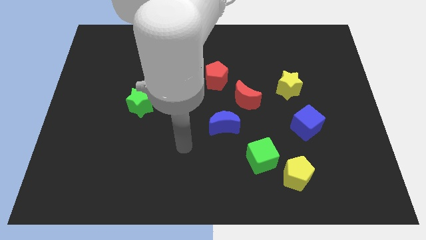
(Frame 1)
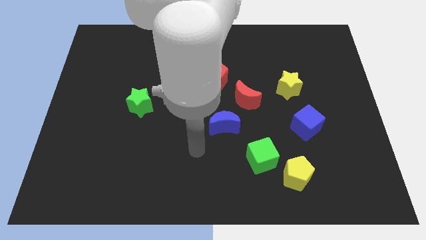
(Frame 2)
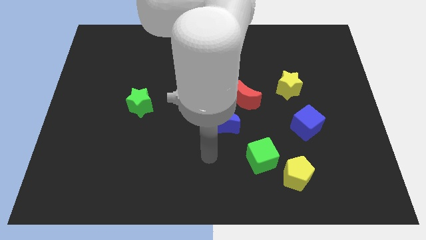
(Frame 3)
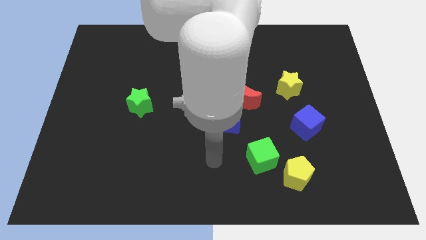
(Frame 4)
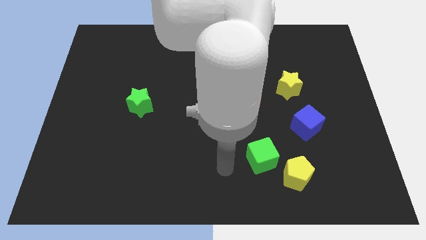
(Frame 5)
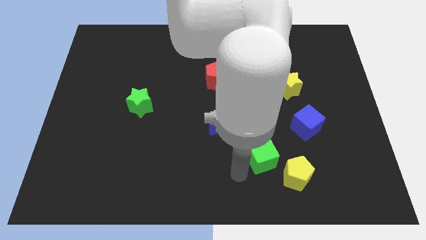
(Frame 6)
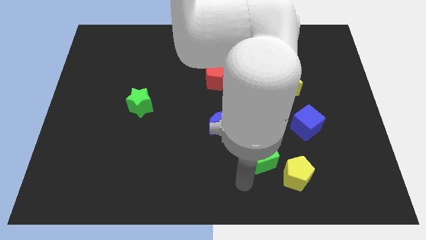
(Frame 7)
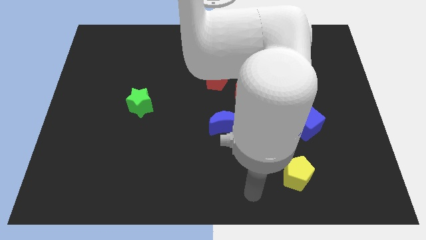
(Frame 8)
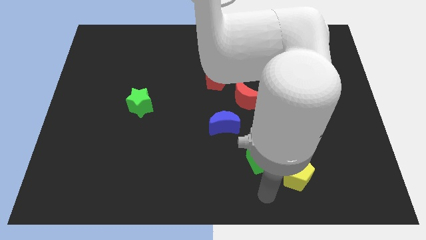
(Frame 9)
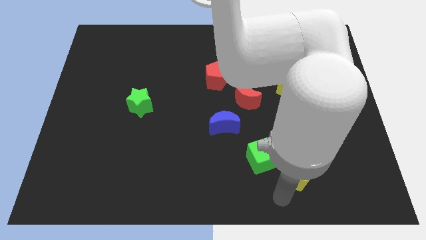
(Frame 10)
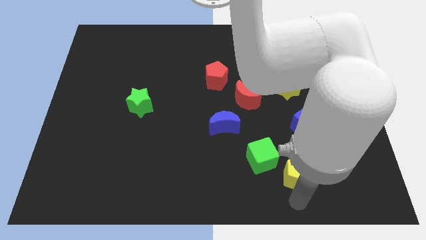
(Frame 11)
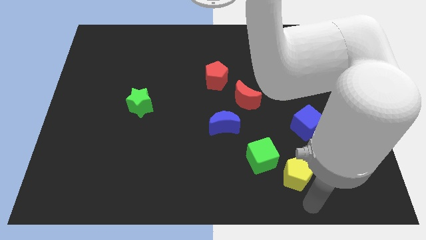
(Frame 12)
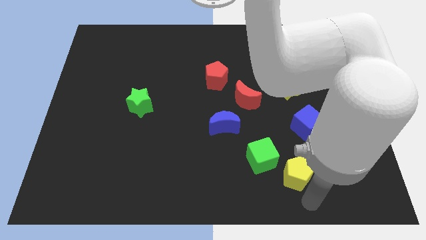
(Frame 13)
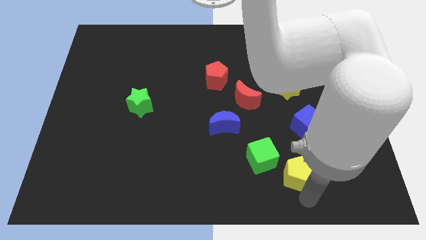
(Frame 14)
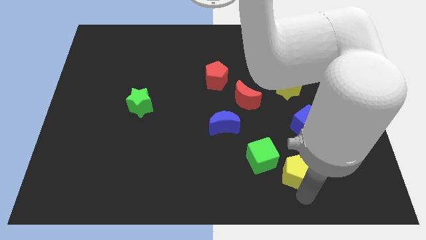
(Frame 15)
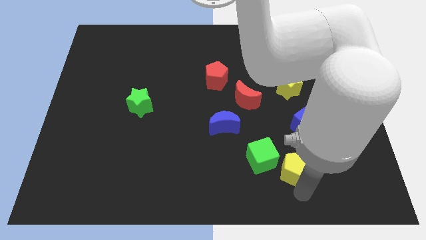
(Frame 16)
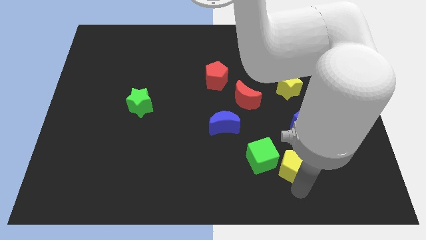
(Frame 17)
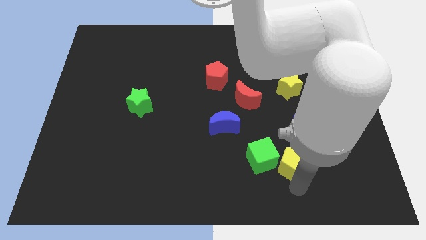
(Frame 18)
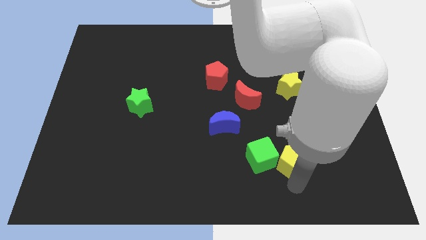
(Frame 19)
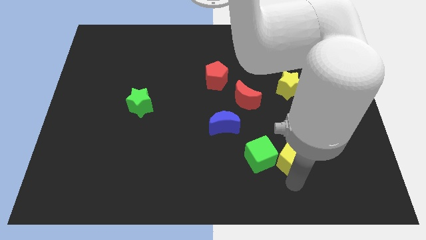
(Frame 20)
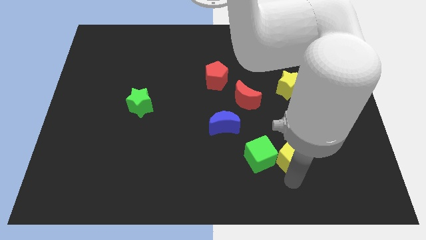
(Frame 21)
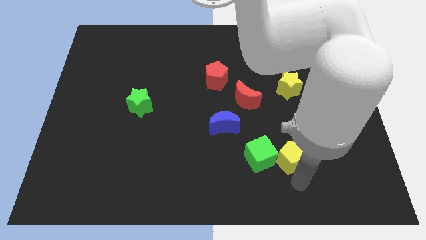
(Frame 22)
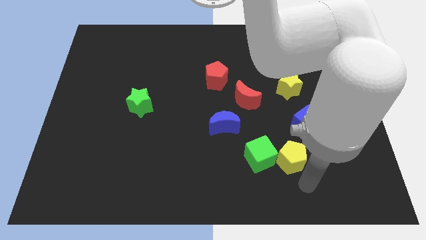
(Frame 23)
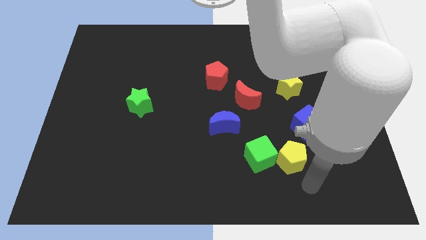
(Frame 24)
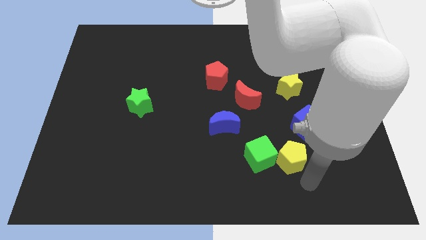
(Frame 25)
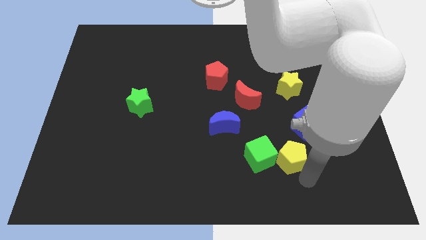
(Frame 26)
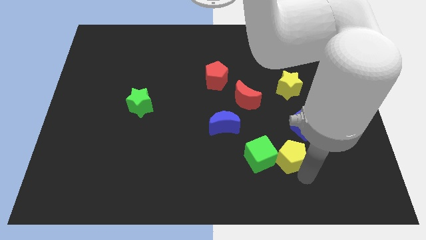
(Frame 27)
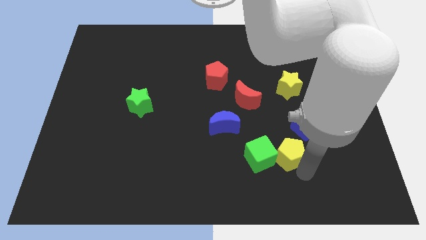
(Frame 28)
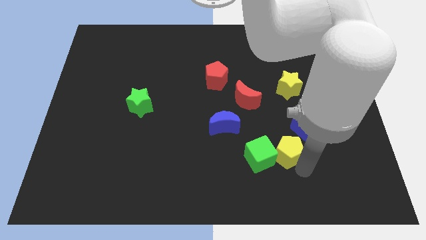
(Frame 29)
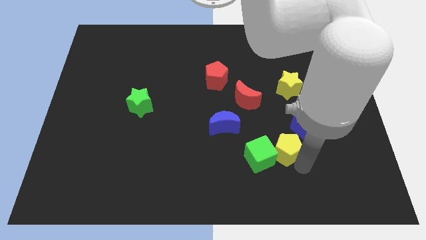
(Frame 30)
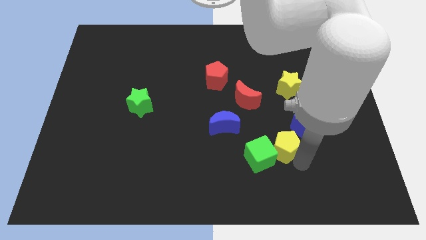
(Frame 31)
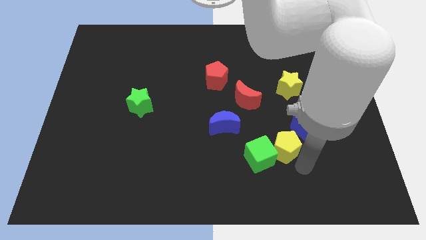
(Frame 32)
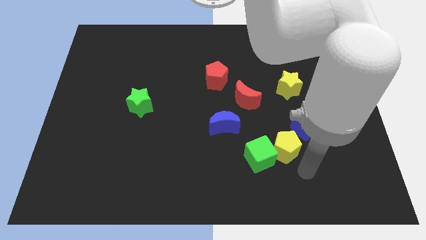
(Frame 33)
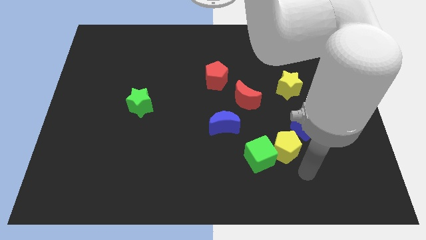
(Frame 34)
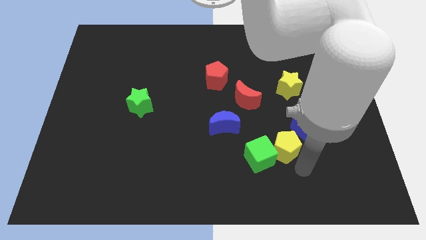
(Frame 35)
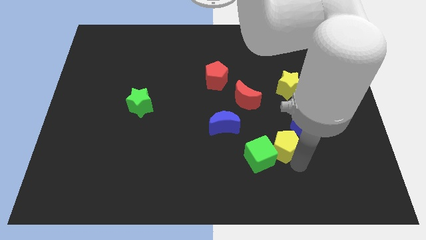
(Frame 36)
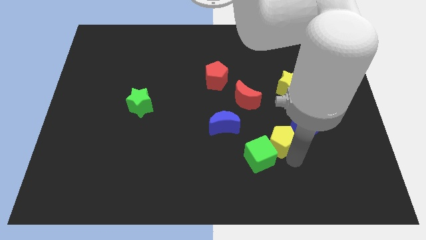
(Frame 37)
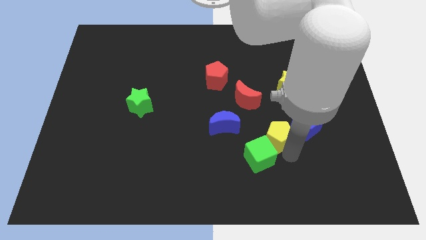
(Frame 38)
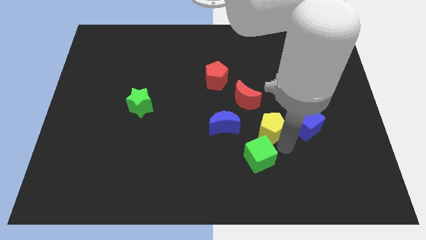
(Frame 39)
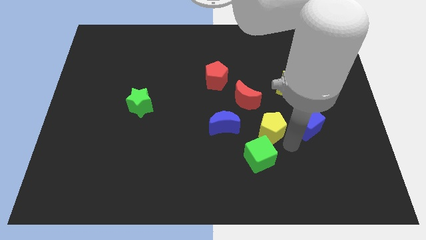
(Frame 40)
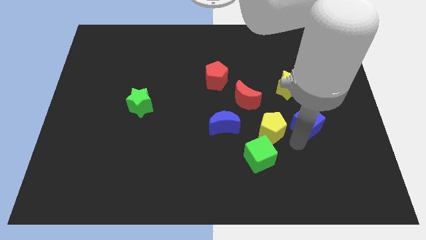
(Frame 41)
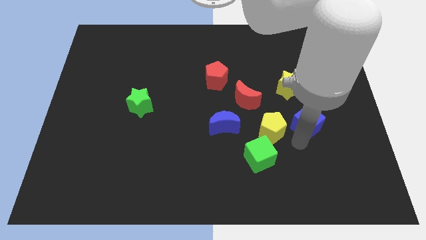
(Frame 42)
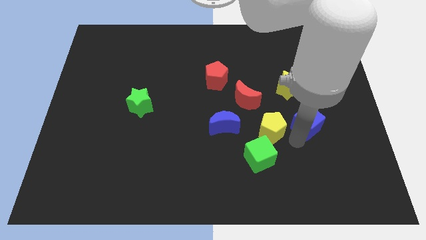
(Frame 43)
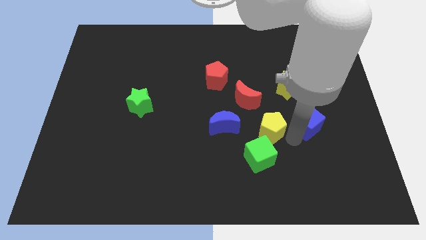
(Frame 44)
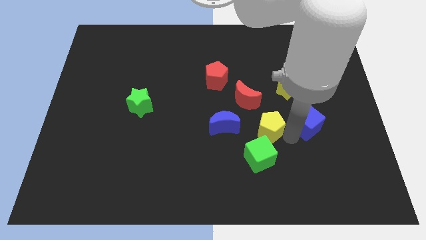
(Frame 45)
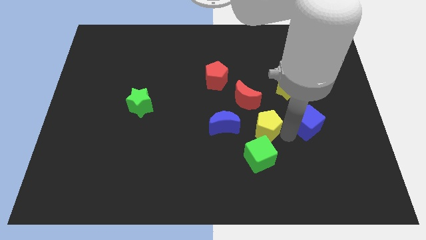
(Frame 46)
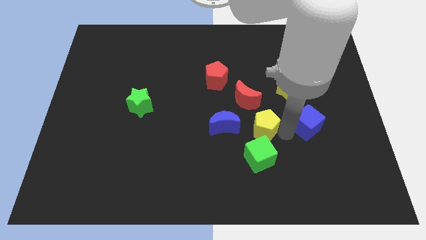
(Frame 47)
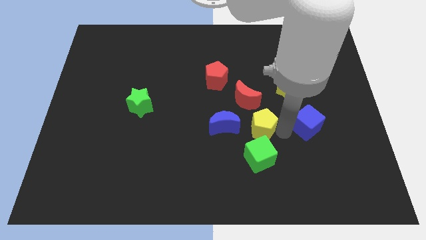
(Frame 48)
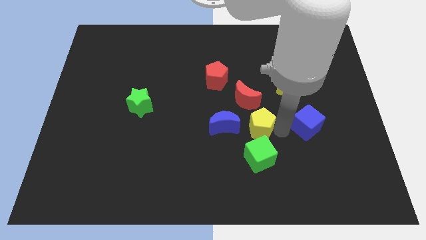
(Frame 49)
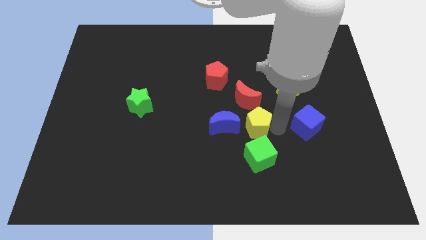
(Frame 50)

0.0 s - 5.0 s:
put the yellow pentagon to the center of the board

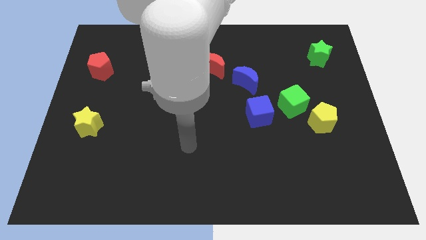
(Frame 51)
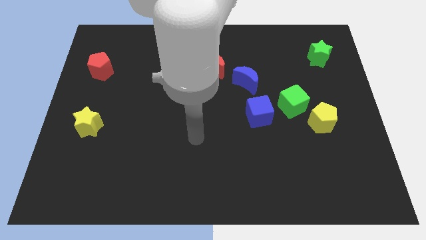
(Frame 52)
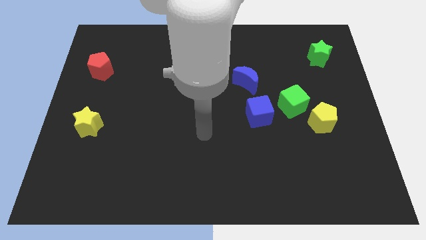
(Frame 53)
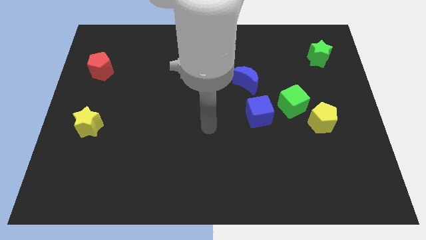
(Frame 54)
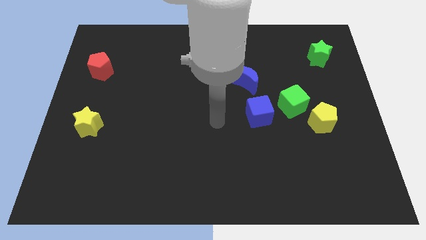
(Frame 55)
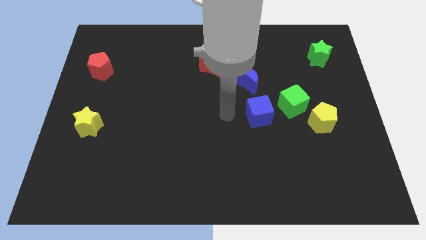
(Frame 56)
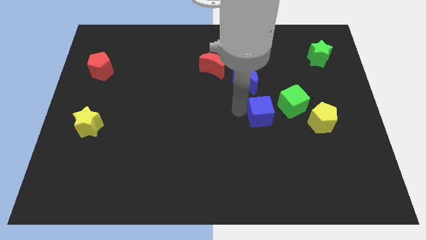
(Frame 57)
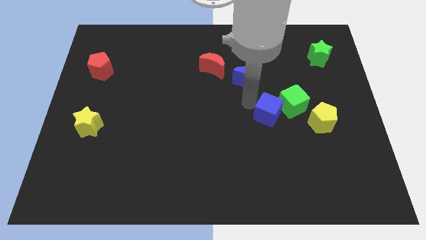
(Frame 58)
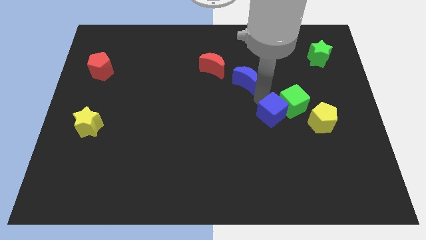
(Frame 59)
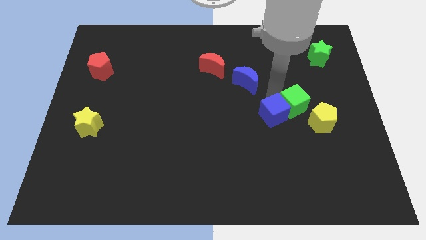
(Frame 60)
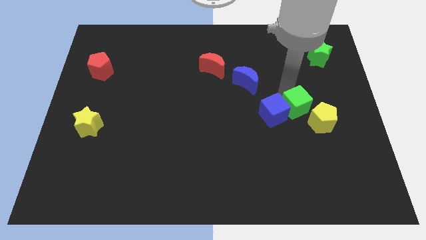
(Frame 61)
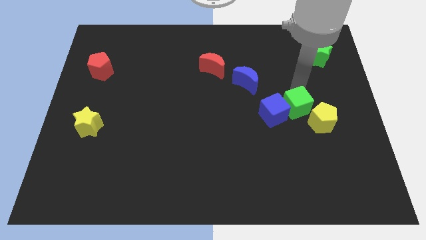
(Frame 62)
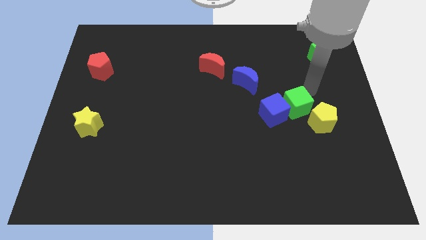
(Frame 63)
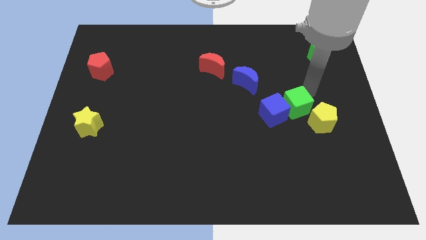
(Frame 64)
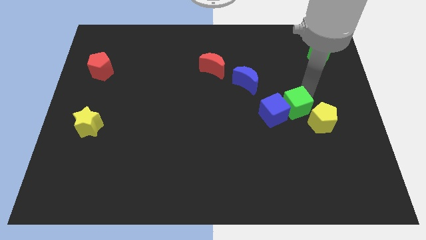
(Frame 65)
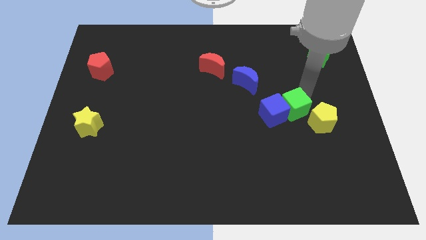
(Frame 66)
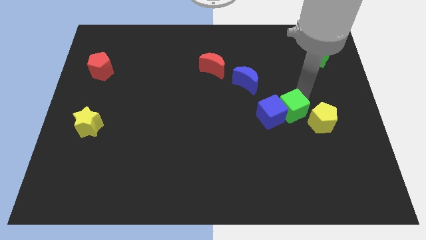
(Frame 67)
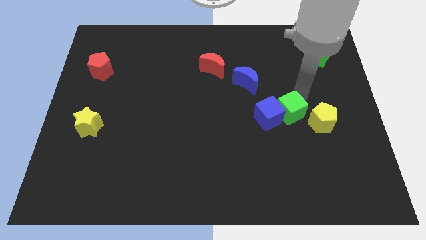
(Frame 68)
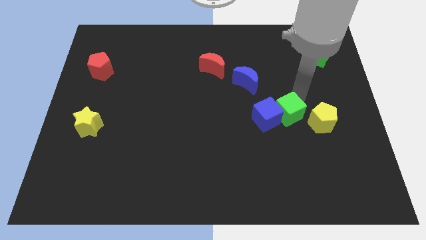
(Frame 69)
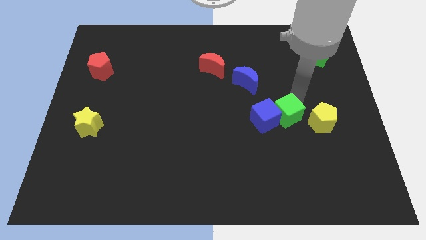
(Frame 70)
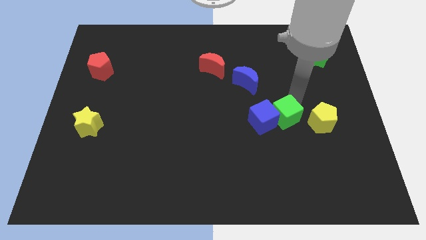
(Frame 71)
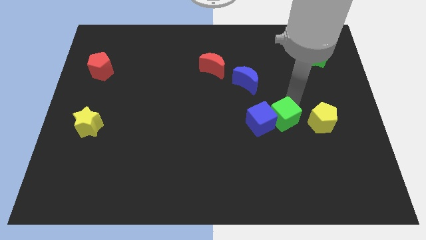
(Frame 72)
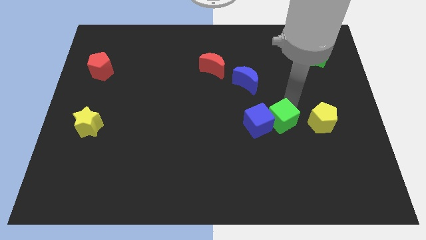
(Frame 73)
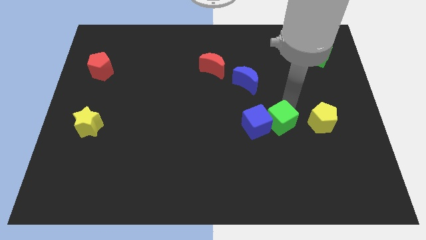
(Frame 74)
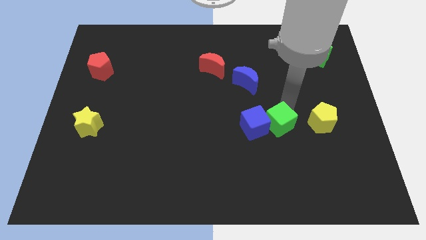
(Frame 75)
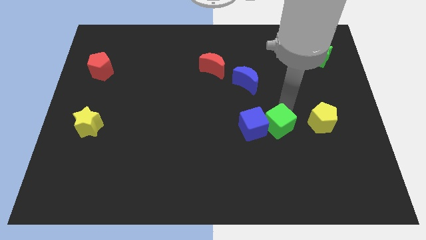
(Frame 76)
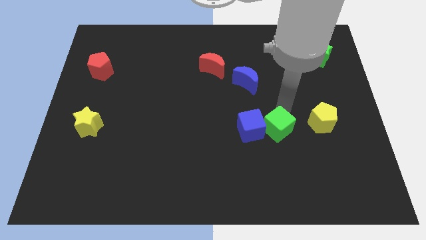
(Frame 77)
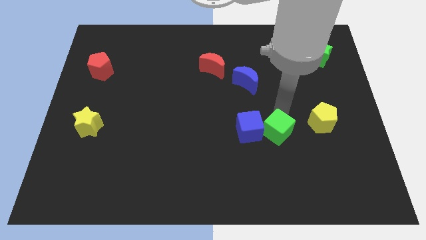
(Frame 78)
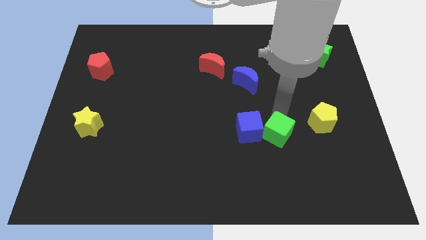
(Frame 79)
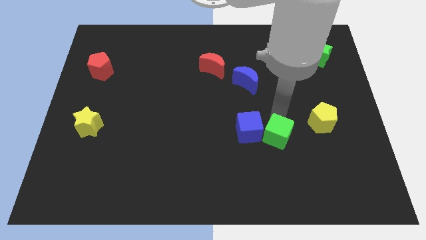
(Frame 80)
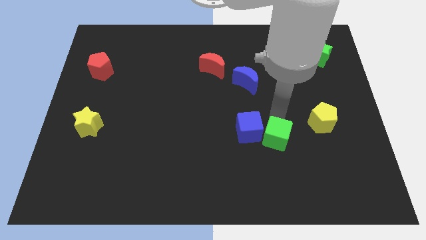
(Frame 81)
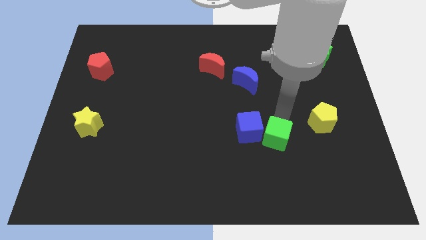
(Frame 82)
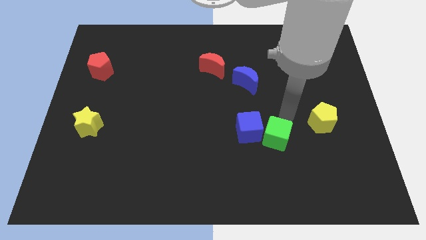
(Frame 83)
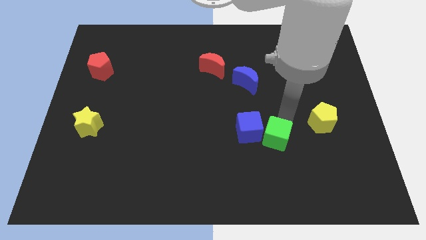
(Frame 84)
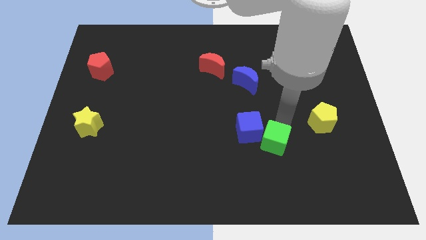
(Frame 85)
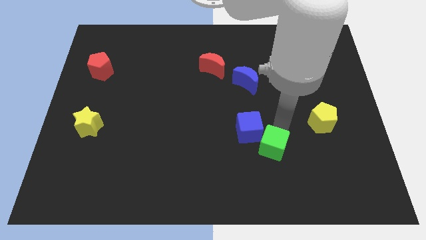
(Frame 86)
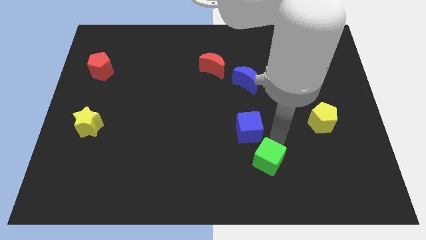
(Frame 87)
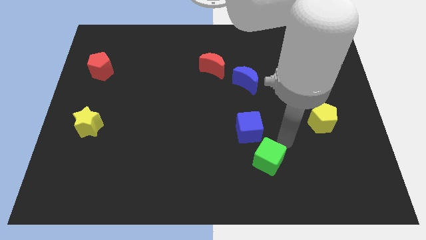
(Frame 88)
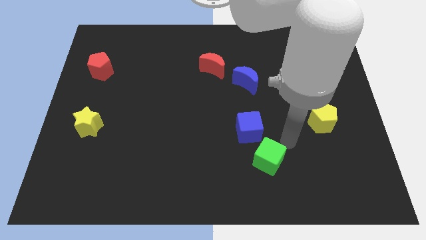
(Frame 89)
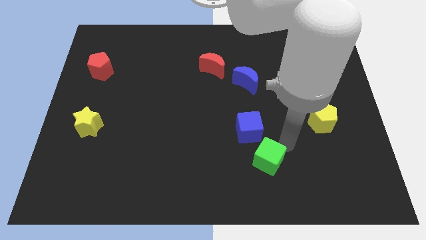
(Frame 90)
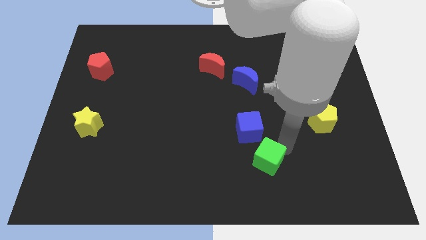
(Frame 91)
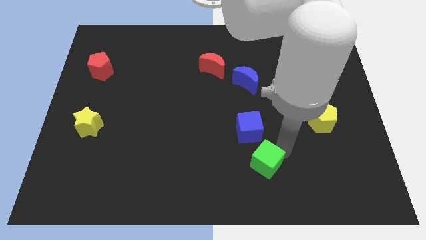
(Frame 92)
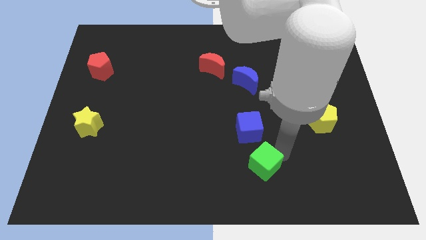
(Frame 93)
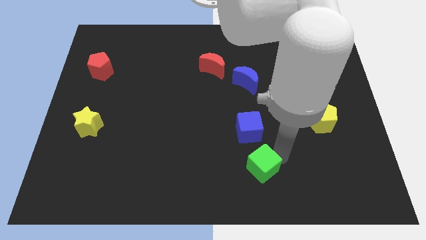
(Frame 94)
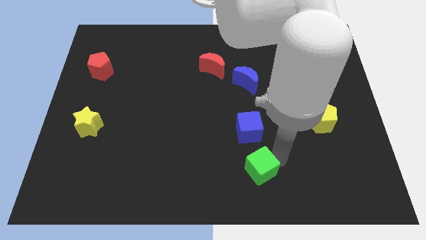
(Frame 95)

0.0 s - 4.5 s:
push the green cube to the bottom
